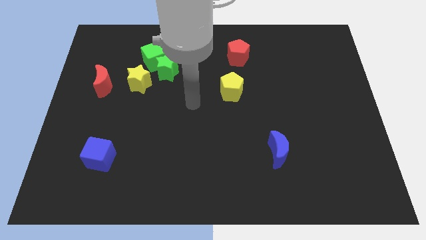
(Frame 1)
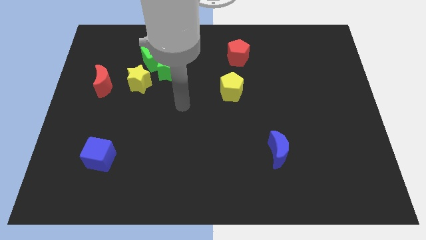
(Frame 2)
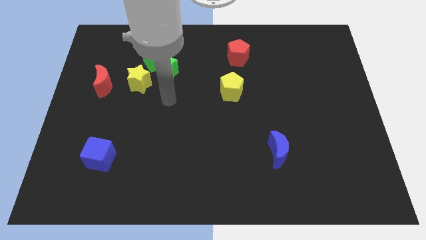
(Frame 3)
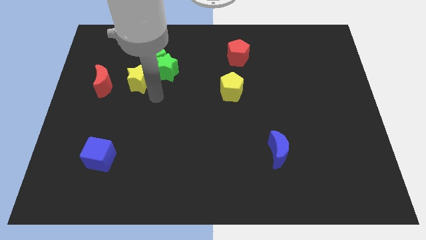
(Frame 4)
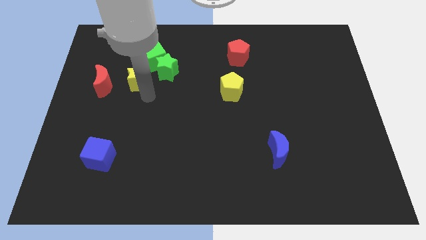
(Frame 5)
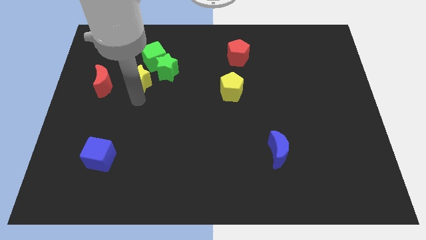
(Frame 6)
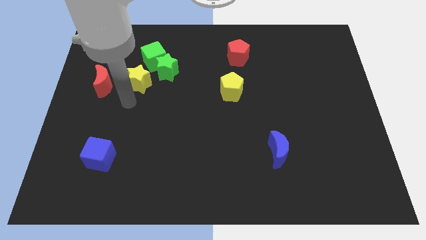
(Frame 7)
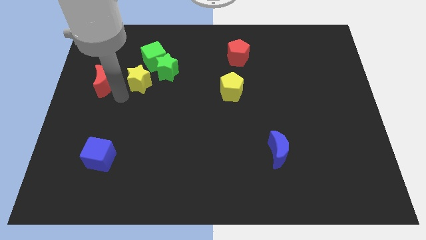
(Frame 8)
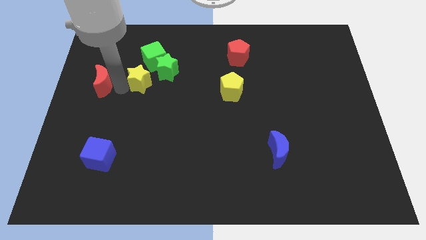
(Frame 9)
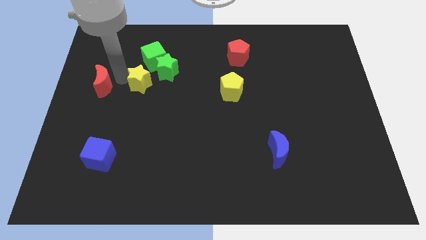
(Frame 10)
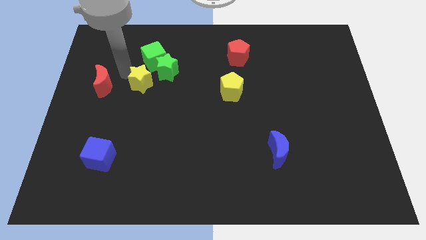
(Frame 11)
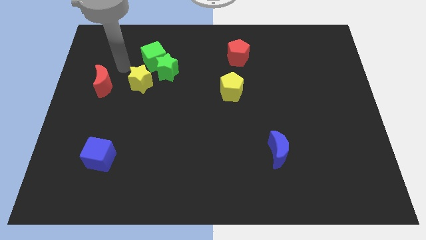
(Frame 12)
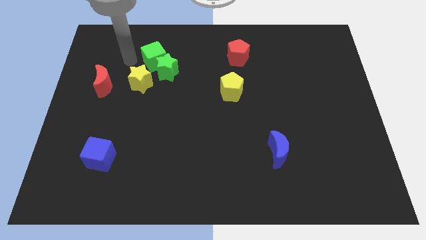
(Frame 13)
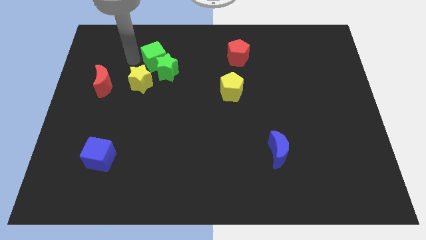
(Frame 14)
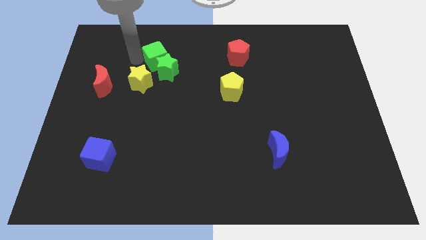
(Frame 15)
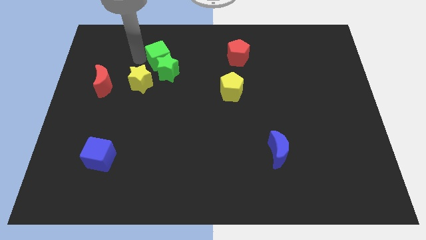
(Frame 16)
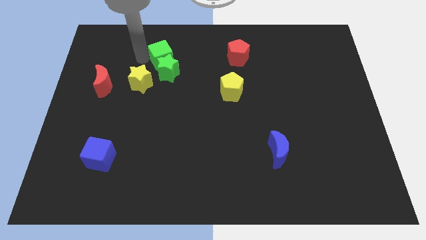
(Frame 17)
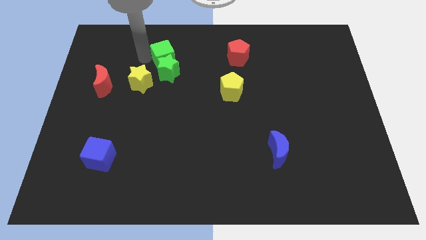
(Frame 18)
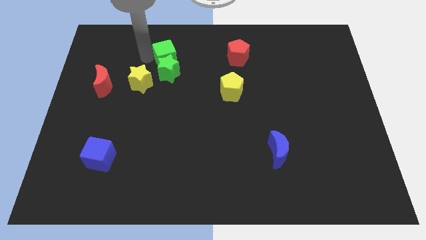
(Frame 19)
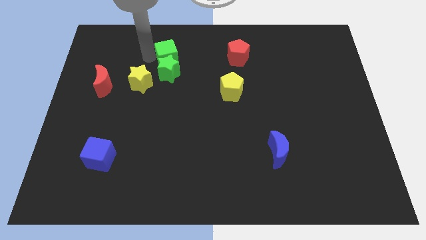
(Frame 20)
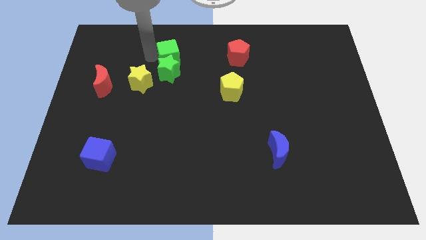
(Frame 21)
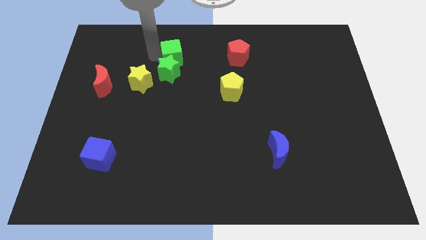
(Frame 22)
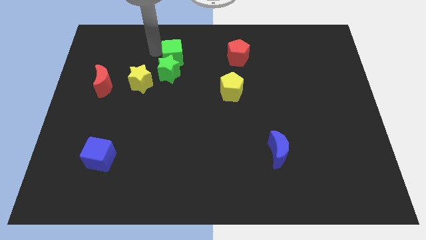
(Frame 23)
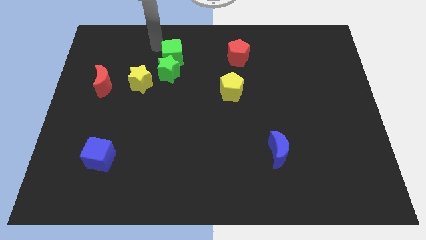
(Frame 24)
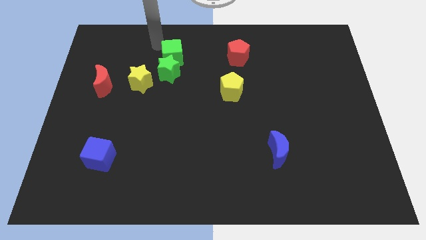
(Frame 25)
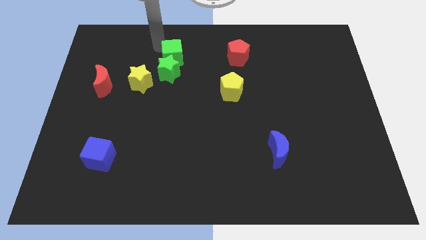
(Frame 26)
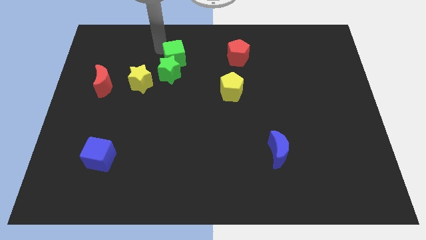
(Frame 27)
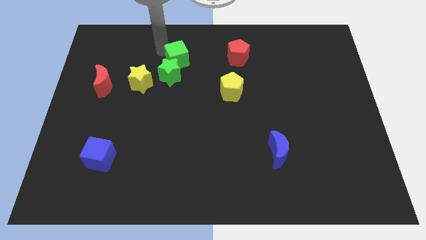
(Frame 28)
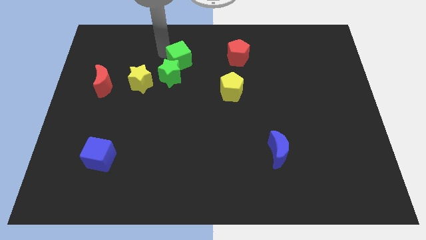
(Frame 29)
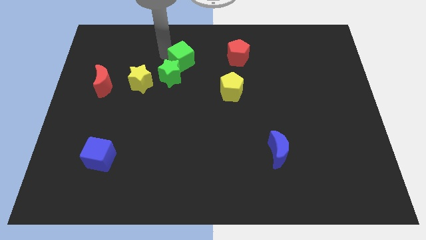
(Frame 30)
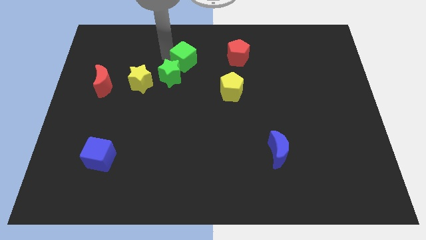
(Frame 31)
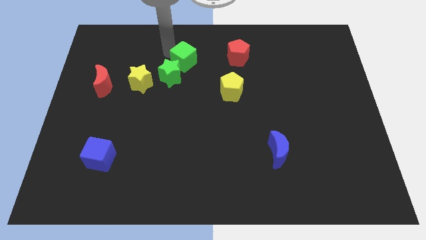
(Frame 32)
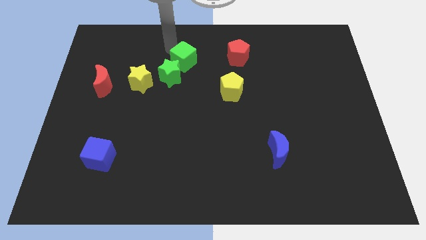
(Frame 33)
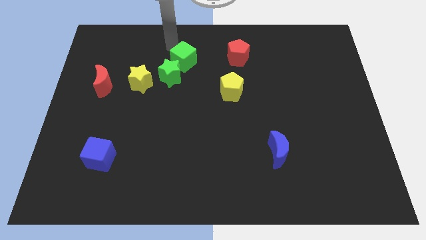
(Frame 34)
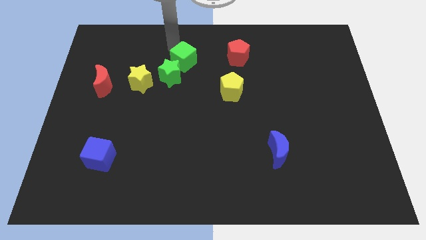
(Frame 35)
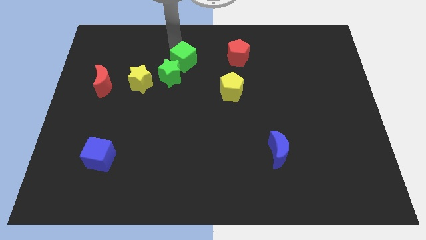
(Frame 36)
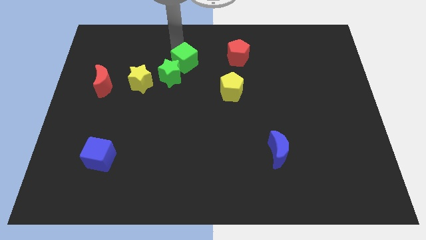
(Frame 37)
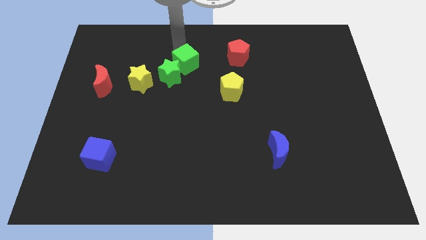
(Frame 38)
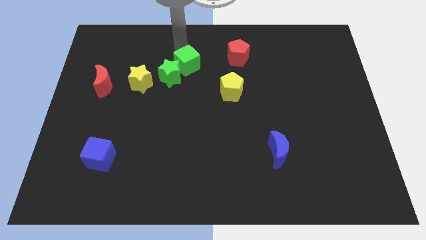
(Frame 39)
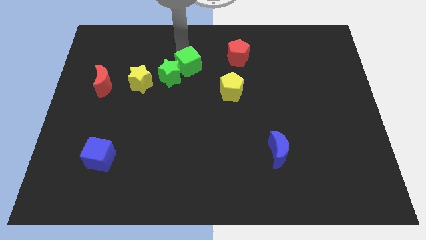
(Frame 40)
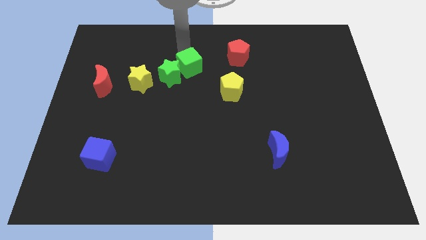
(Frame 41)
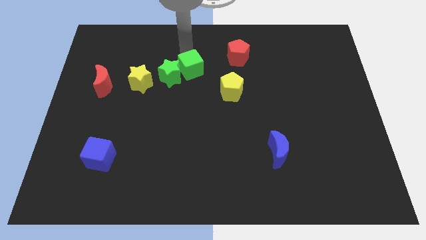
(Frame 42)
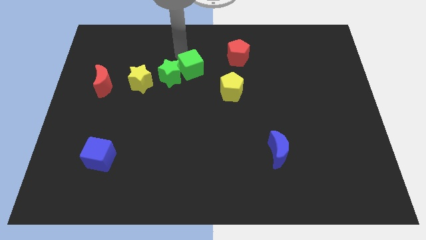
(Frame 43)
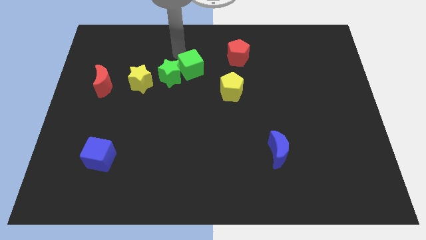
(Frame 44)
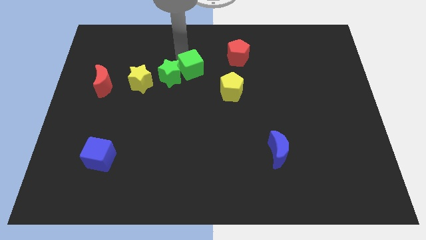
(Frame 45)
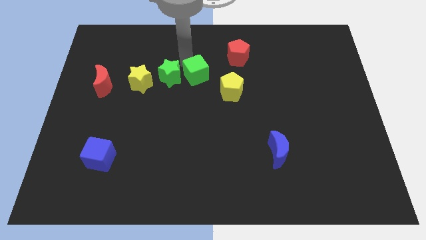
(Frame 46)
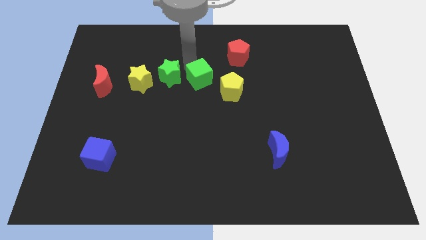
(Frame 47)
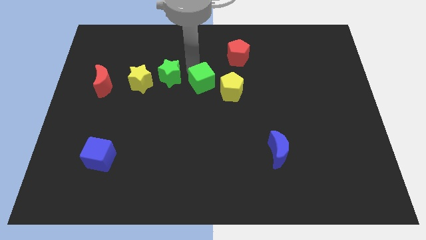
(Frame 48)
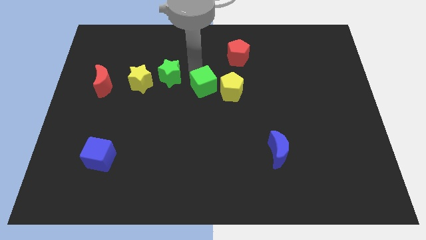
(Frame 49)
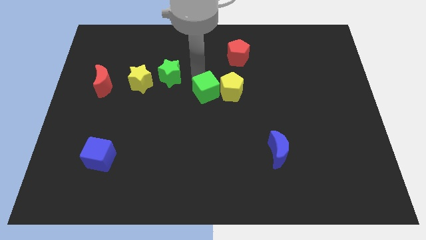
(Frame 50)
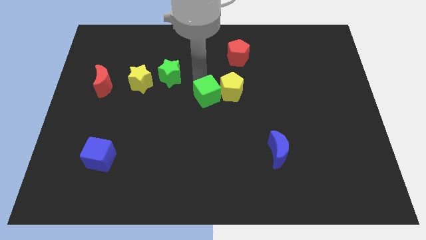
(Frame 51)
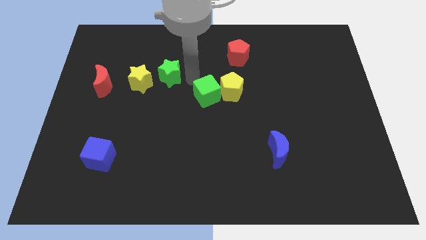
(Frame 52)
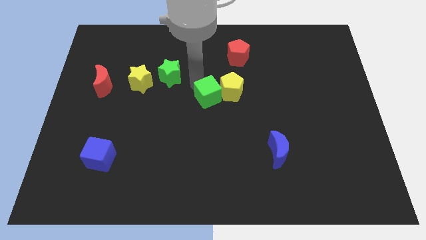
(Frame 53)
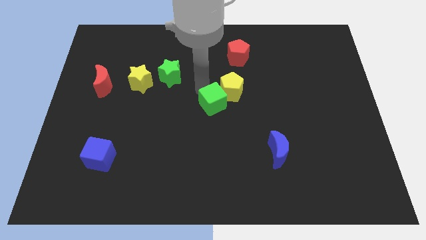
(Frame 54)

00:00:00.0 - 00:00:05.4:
slide the green cube down and right

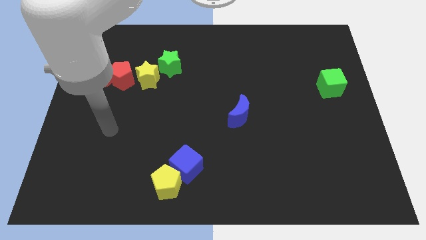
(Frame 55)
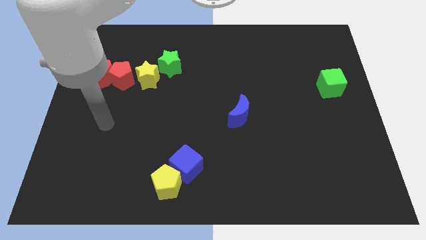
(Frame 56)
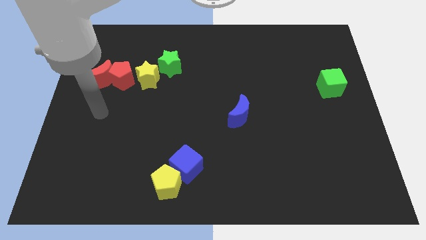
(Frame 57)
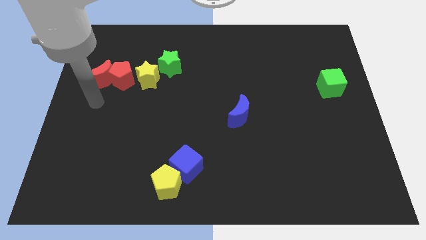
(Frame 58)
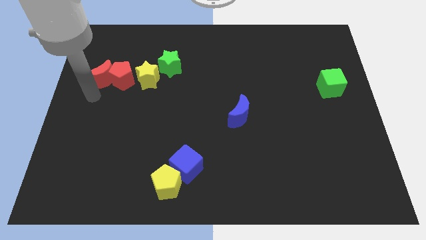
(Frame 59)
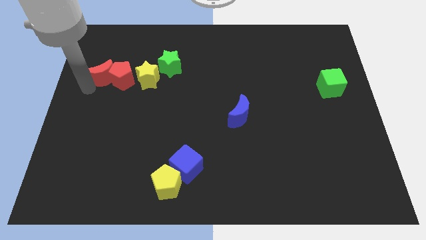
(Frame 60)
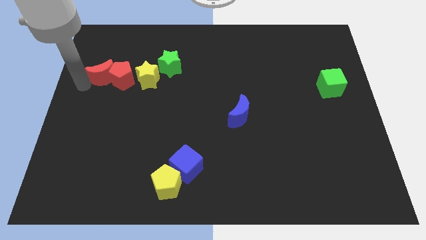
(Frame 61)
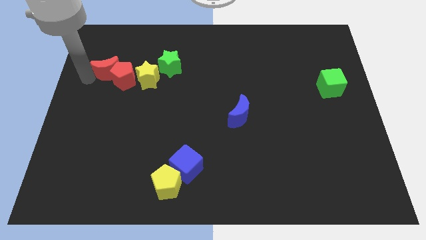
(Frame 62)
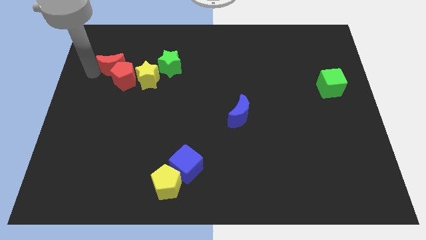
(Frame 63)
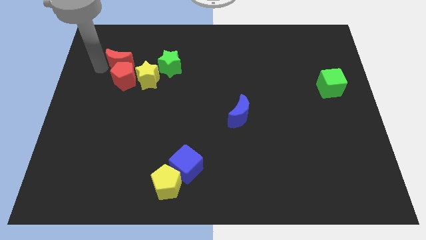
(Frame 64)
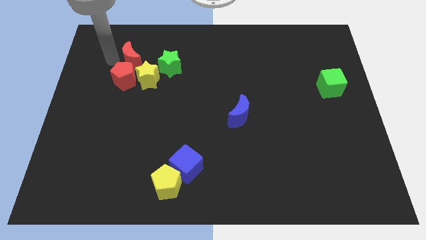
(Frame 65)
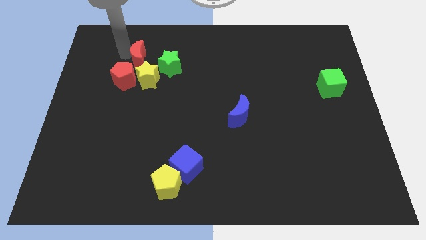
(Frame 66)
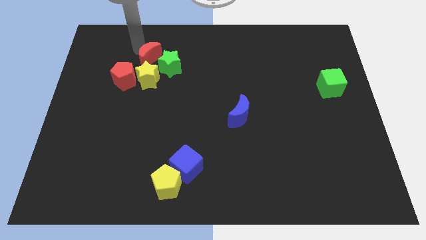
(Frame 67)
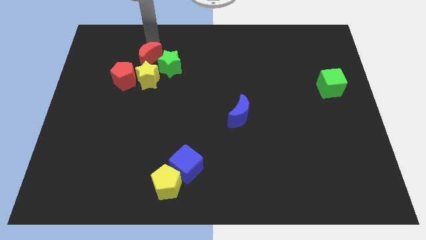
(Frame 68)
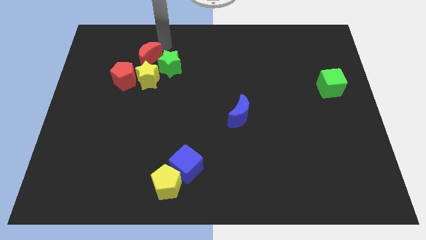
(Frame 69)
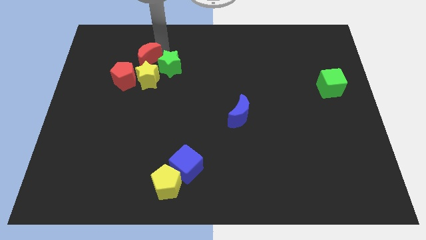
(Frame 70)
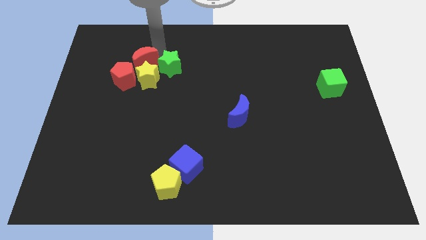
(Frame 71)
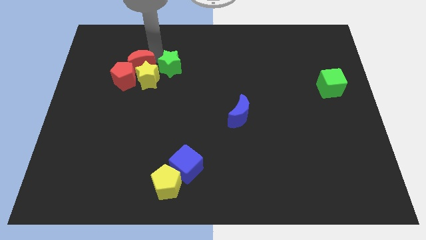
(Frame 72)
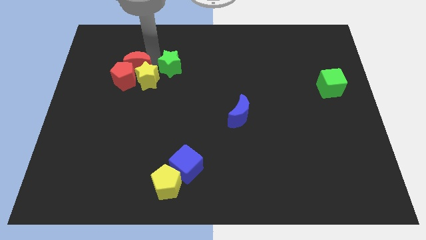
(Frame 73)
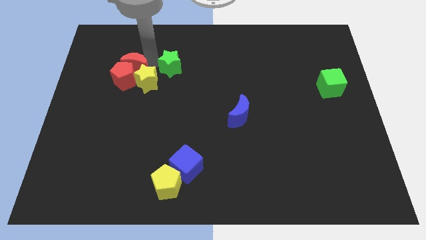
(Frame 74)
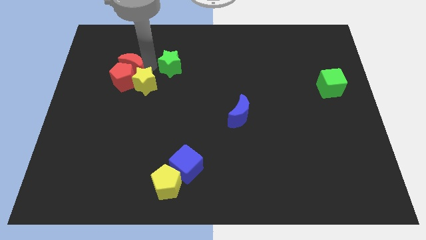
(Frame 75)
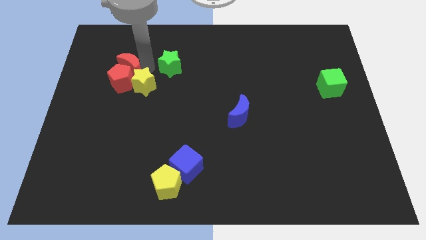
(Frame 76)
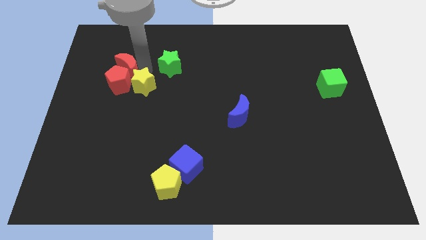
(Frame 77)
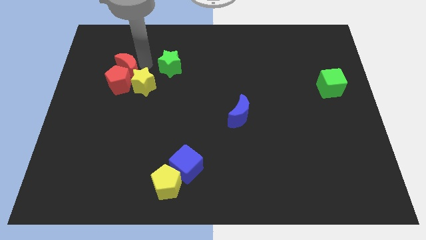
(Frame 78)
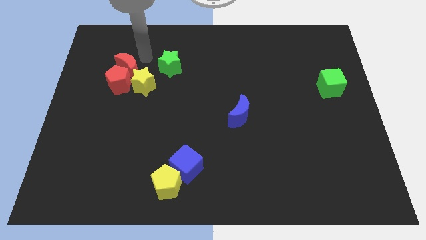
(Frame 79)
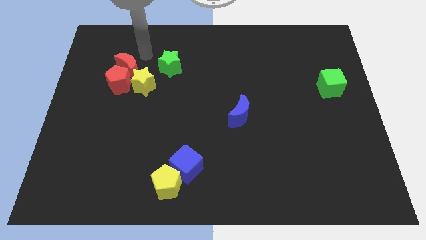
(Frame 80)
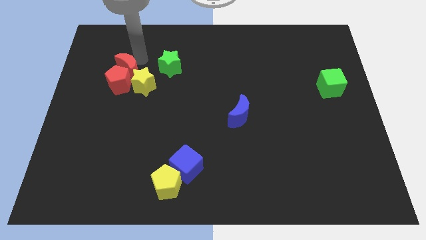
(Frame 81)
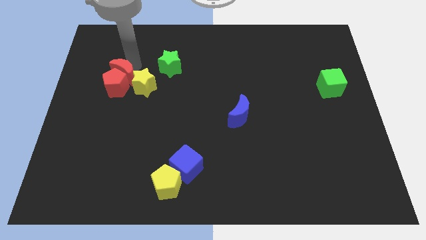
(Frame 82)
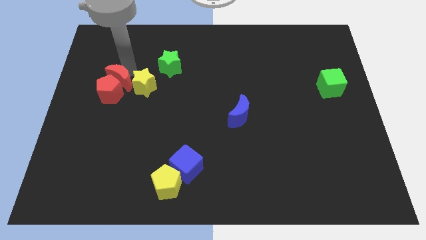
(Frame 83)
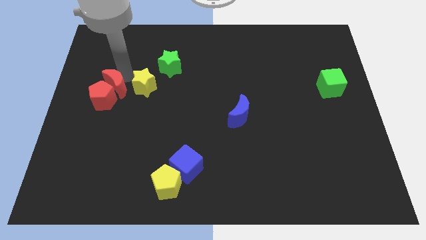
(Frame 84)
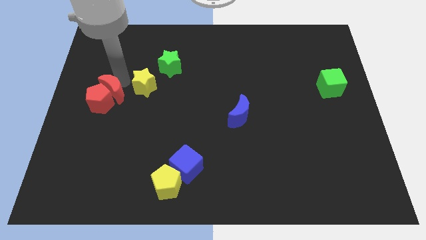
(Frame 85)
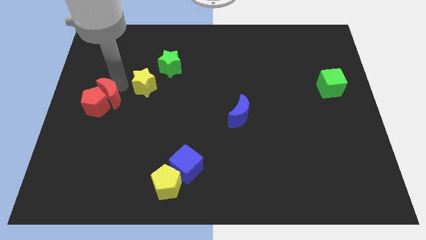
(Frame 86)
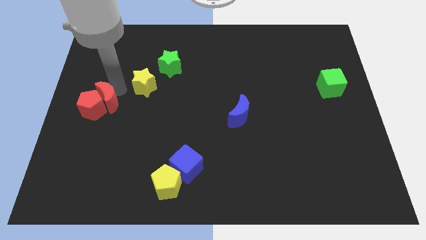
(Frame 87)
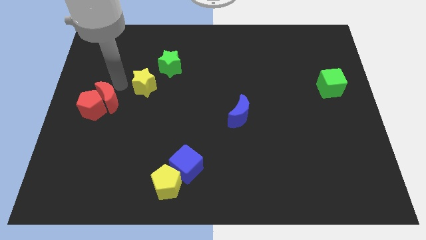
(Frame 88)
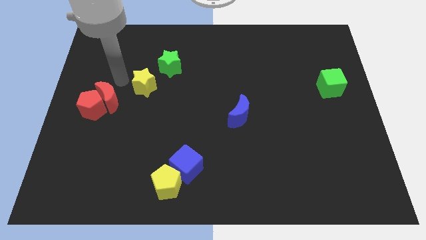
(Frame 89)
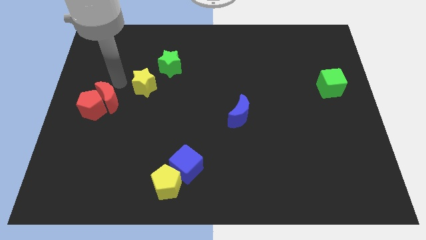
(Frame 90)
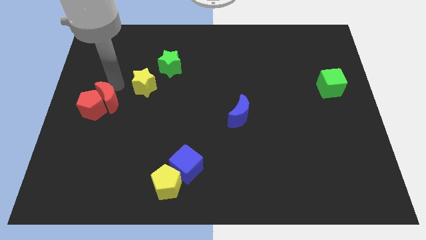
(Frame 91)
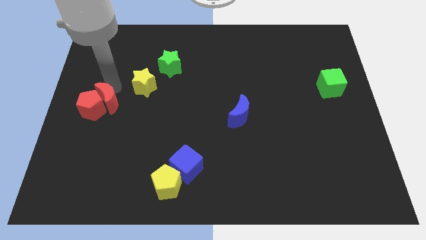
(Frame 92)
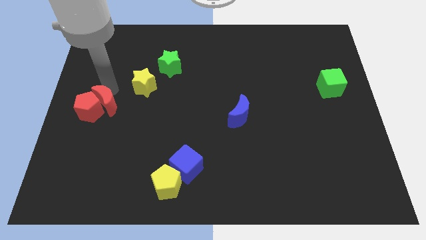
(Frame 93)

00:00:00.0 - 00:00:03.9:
push the red moon a little bit downwards
